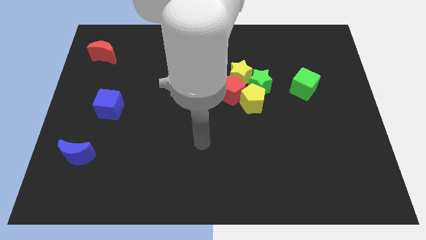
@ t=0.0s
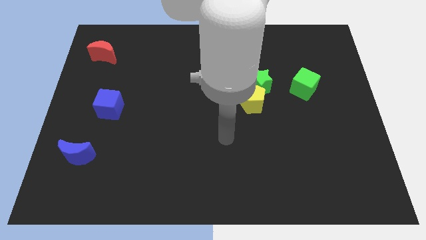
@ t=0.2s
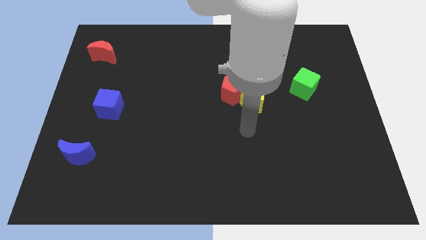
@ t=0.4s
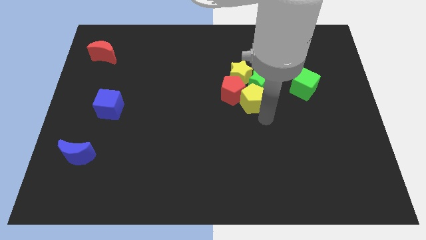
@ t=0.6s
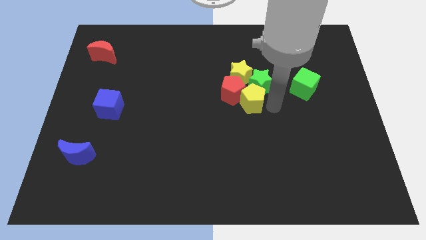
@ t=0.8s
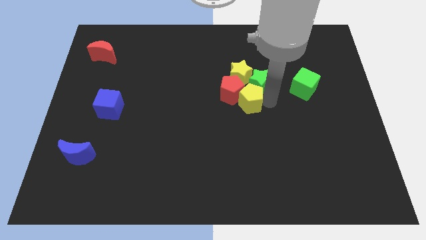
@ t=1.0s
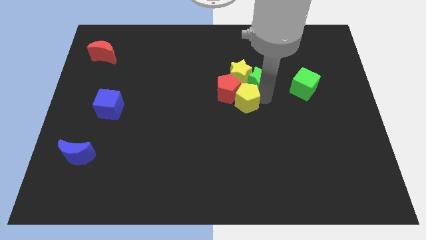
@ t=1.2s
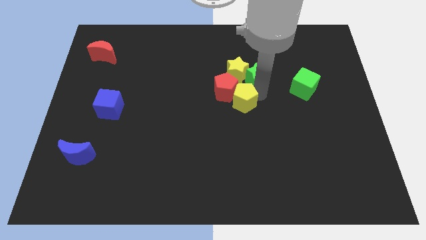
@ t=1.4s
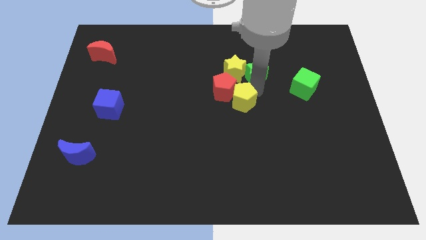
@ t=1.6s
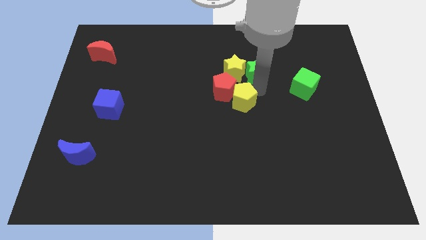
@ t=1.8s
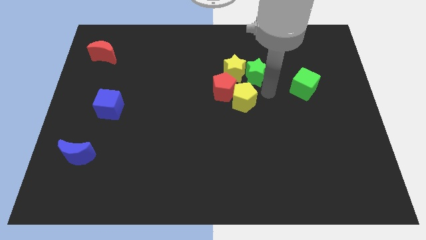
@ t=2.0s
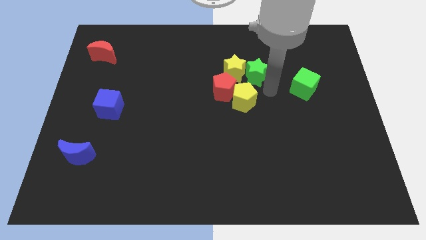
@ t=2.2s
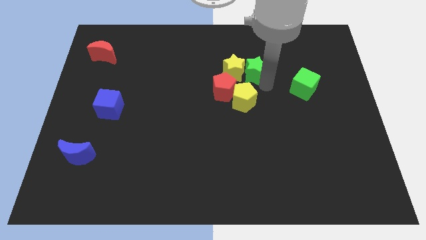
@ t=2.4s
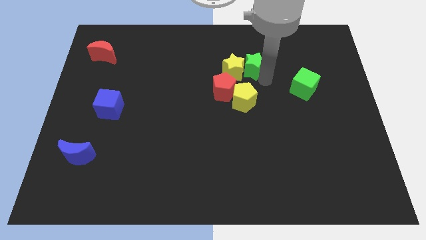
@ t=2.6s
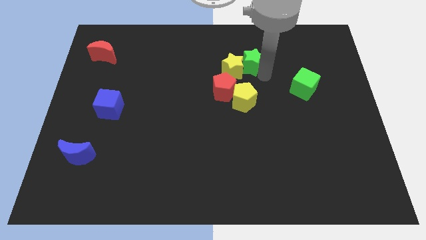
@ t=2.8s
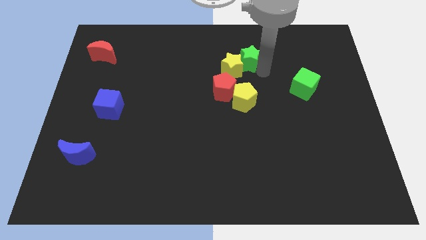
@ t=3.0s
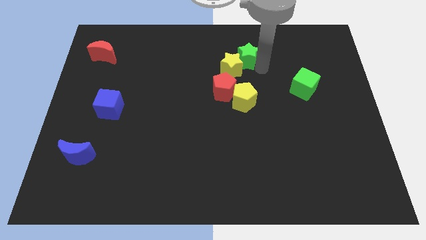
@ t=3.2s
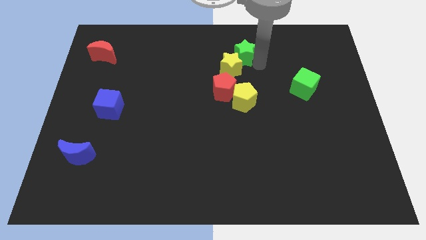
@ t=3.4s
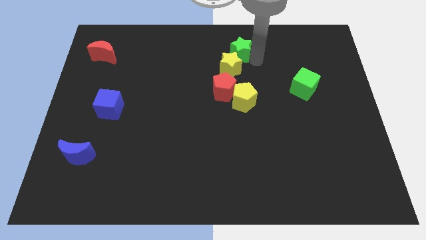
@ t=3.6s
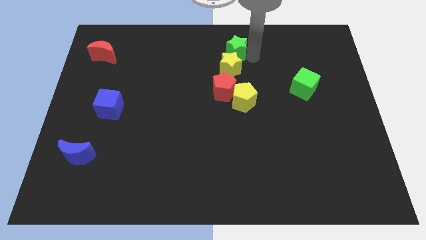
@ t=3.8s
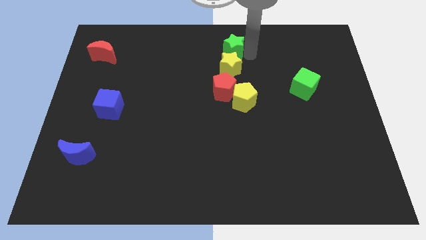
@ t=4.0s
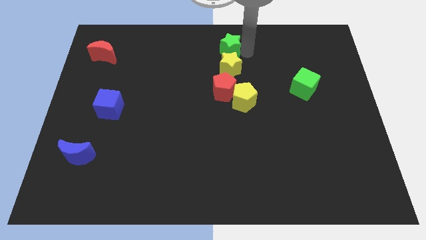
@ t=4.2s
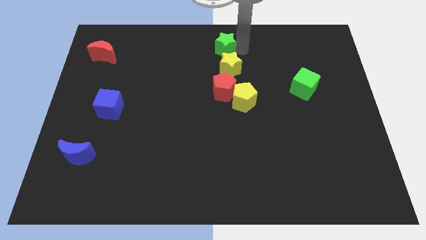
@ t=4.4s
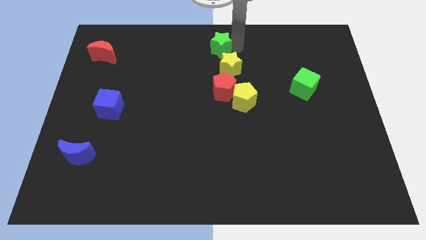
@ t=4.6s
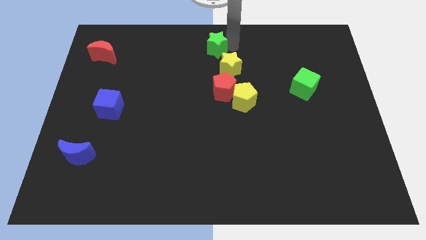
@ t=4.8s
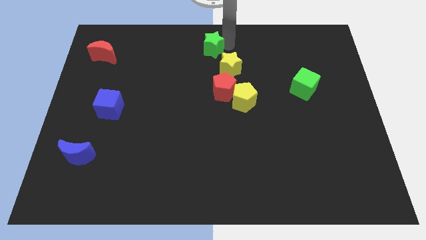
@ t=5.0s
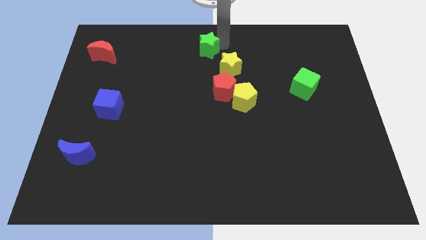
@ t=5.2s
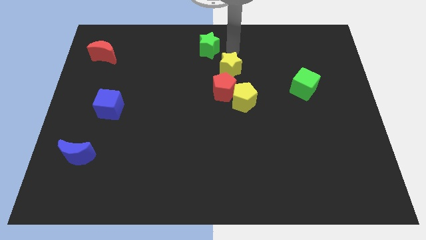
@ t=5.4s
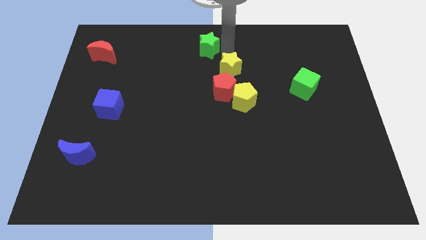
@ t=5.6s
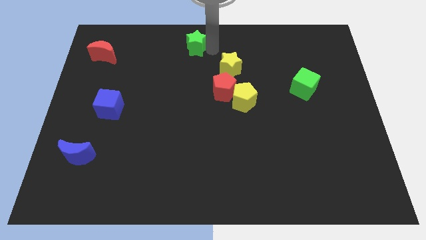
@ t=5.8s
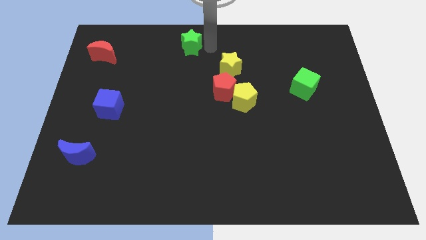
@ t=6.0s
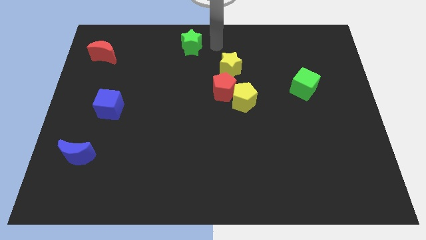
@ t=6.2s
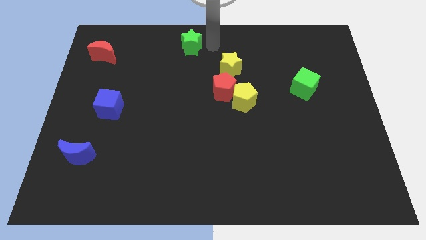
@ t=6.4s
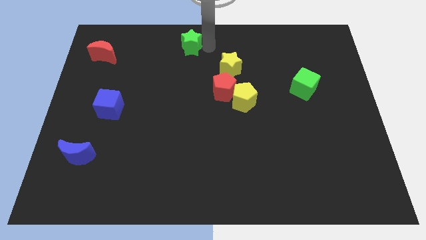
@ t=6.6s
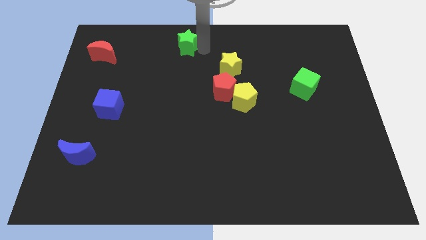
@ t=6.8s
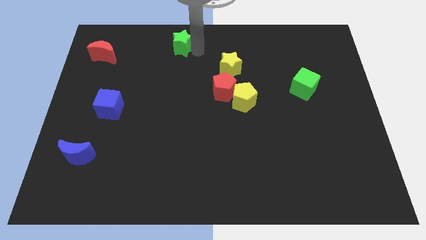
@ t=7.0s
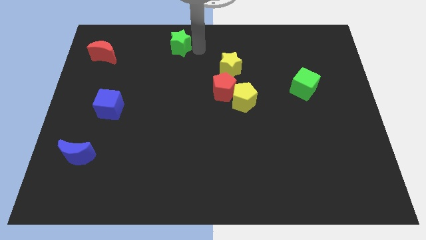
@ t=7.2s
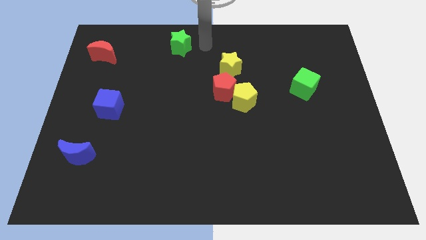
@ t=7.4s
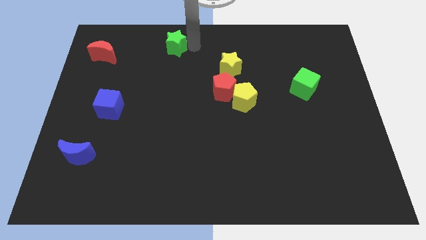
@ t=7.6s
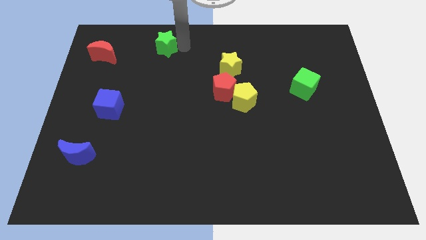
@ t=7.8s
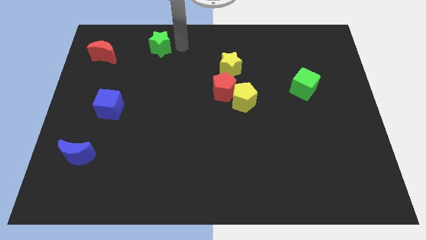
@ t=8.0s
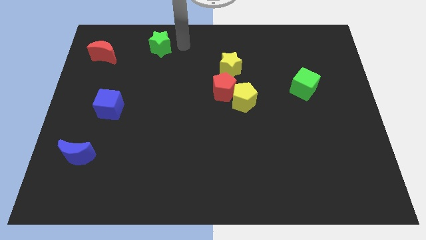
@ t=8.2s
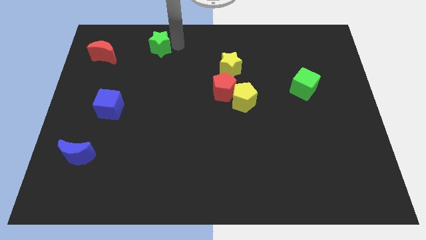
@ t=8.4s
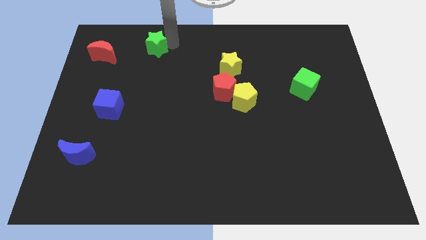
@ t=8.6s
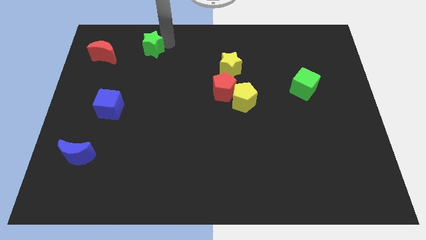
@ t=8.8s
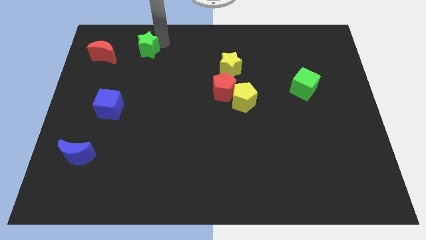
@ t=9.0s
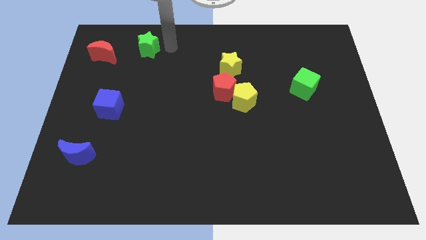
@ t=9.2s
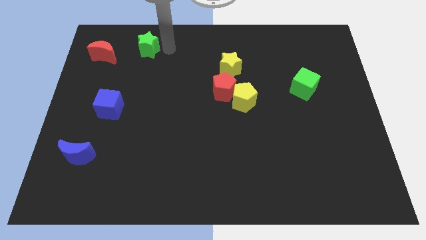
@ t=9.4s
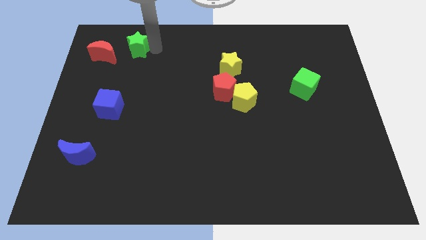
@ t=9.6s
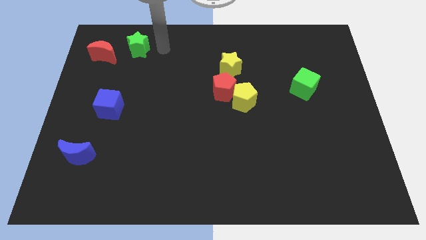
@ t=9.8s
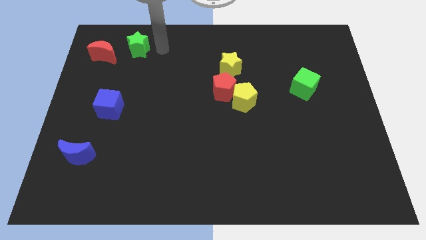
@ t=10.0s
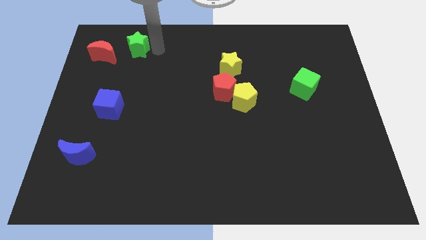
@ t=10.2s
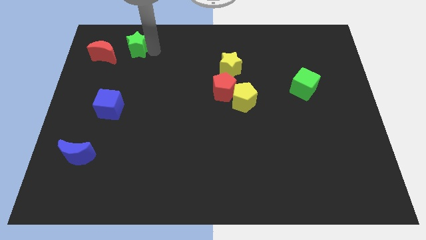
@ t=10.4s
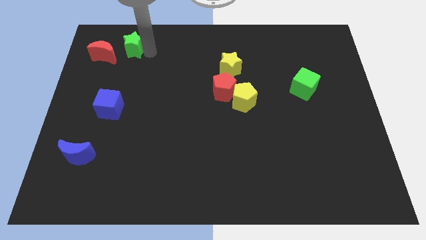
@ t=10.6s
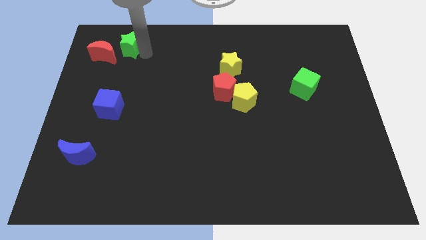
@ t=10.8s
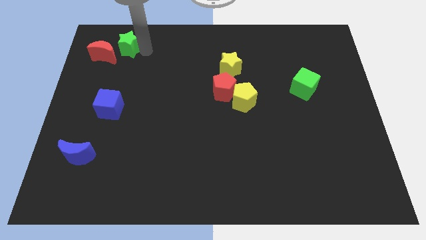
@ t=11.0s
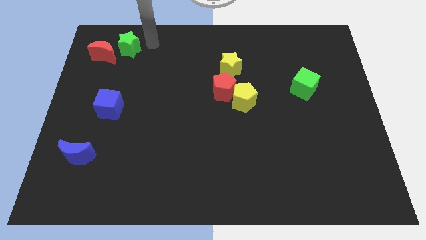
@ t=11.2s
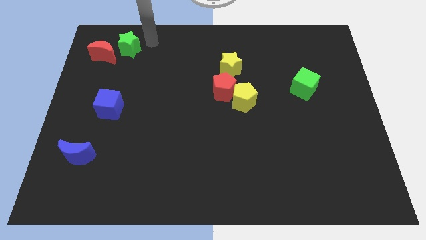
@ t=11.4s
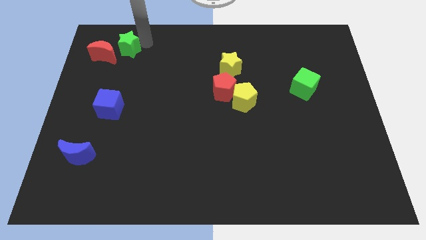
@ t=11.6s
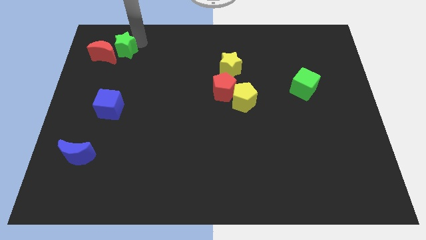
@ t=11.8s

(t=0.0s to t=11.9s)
push the green star to the red moon

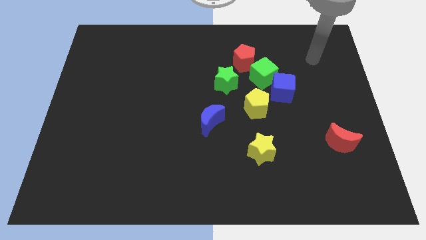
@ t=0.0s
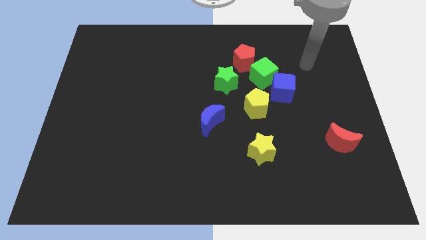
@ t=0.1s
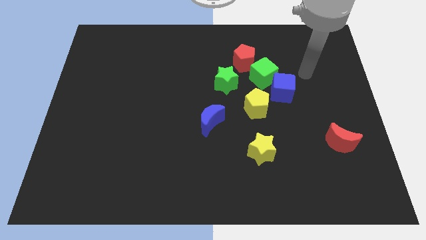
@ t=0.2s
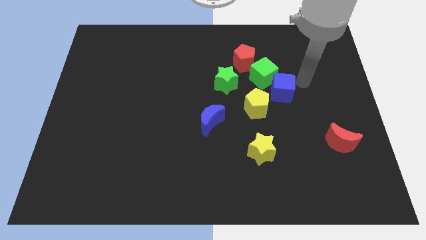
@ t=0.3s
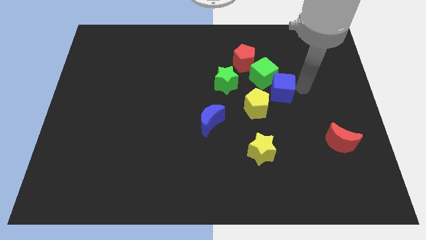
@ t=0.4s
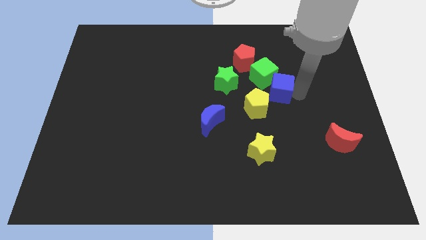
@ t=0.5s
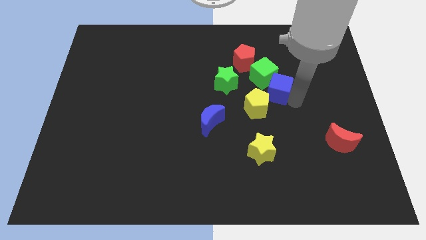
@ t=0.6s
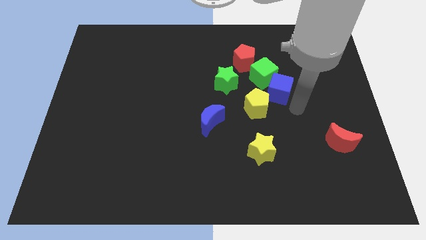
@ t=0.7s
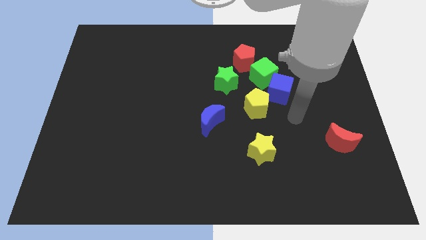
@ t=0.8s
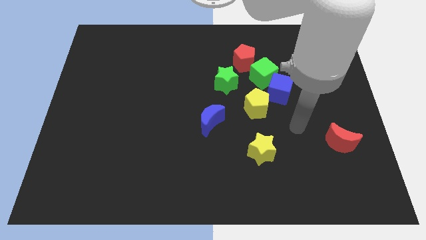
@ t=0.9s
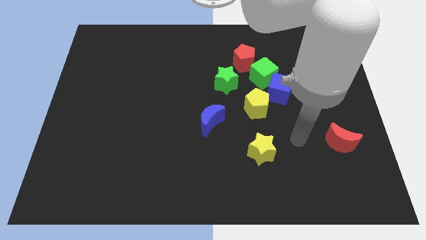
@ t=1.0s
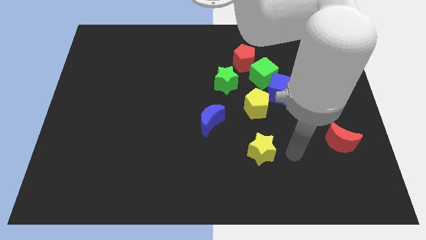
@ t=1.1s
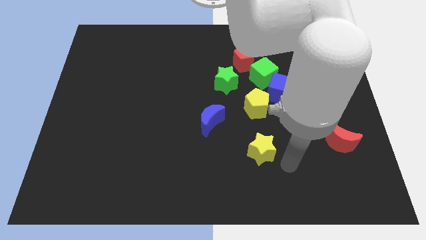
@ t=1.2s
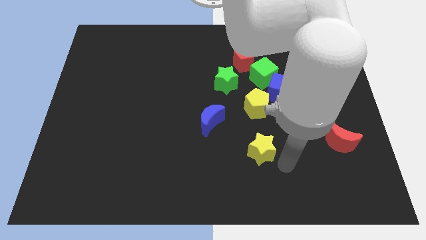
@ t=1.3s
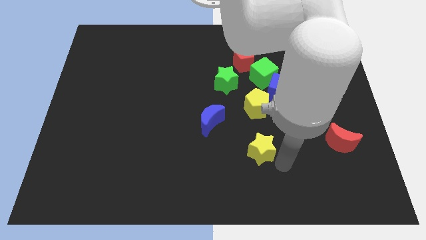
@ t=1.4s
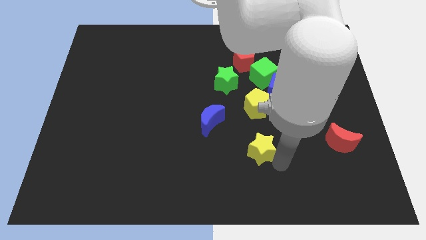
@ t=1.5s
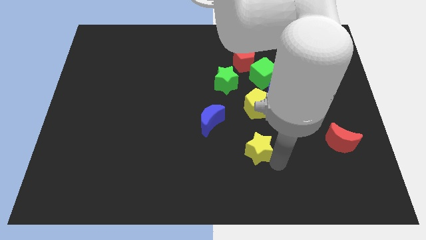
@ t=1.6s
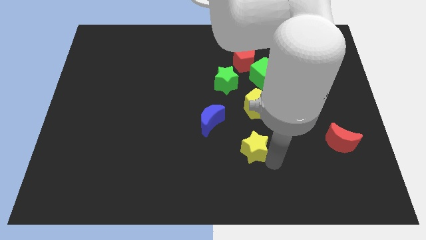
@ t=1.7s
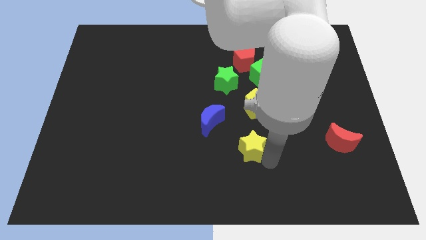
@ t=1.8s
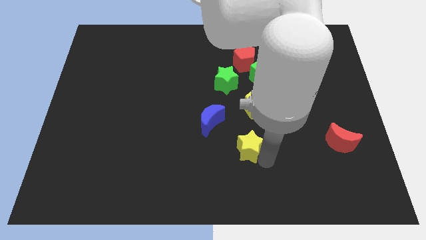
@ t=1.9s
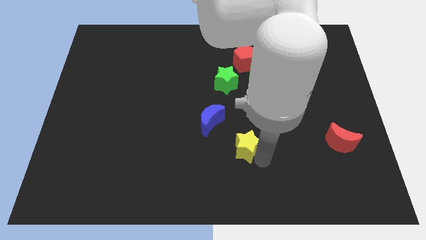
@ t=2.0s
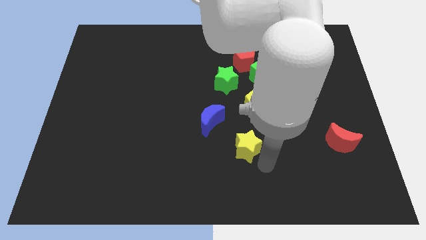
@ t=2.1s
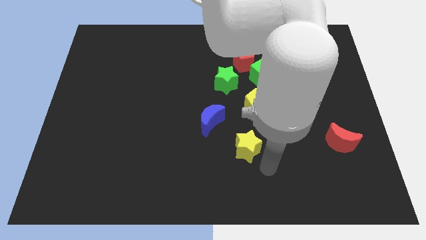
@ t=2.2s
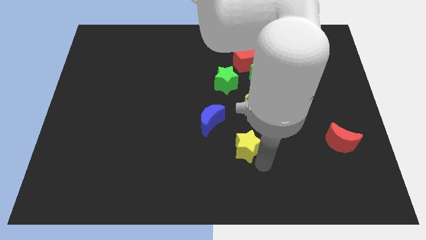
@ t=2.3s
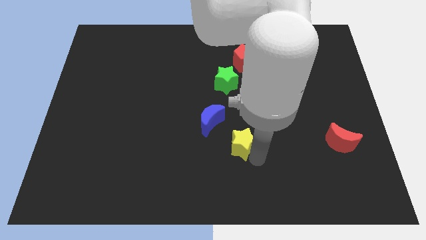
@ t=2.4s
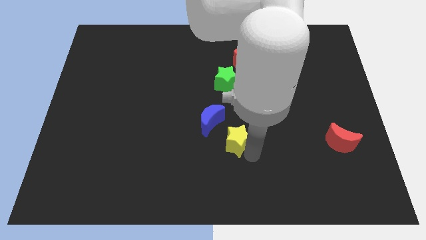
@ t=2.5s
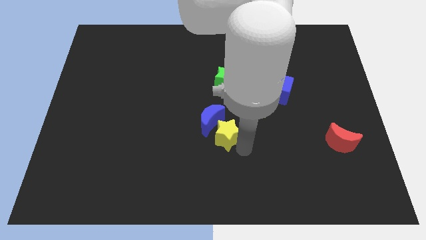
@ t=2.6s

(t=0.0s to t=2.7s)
slide the yellow star close to the blue moon
